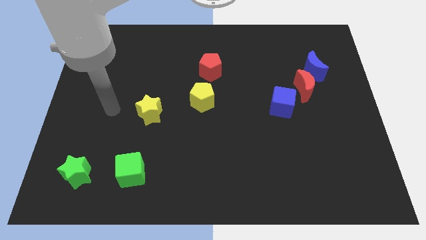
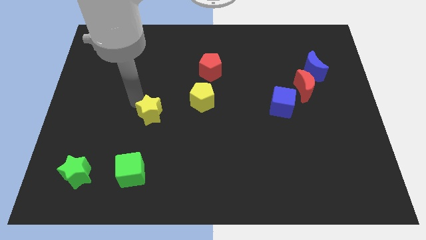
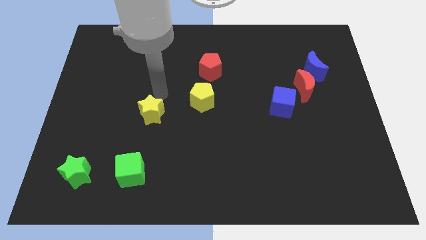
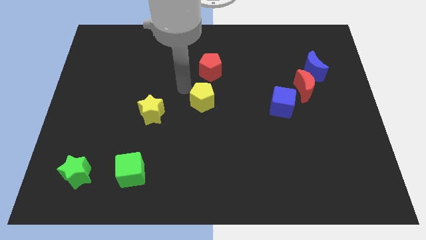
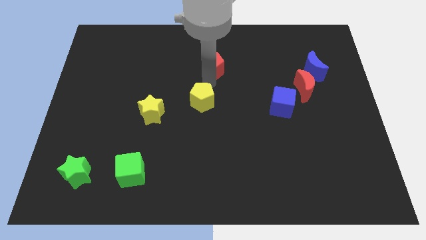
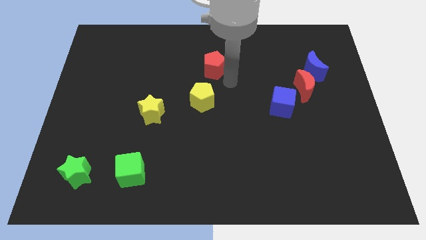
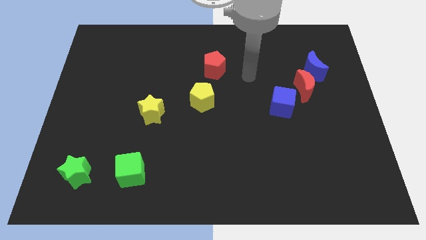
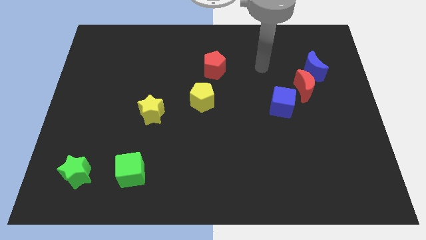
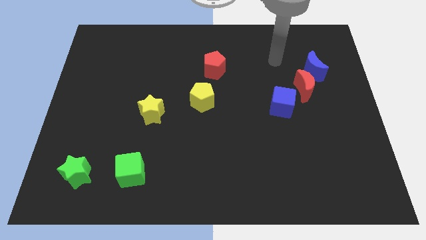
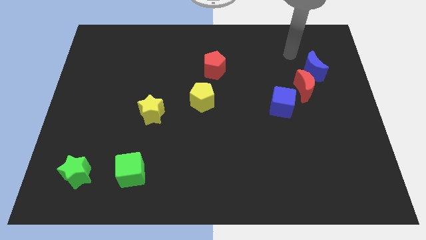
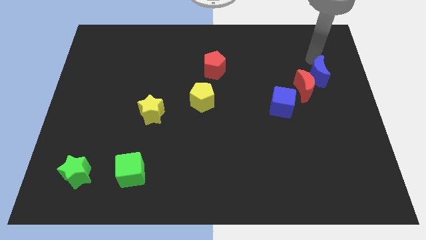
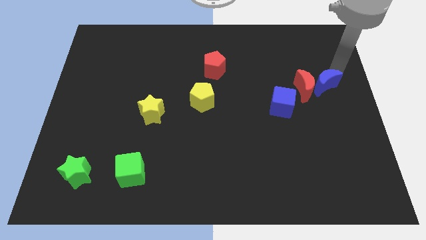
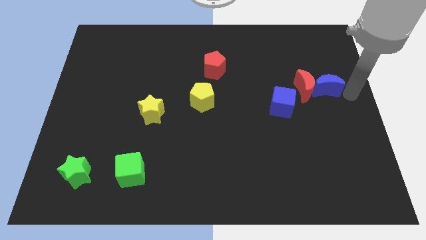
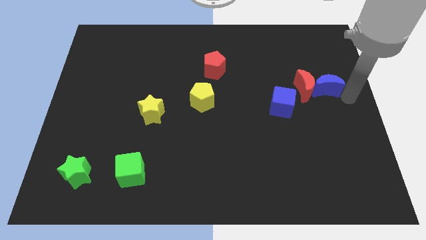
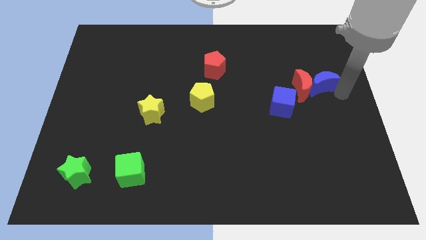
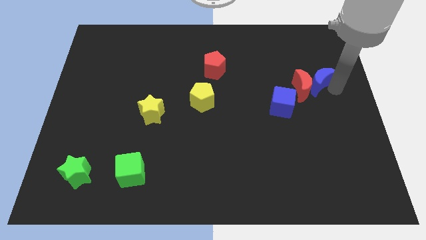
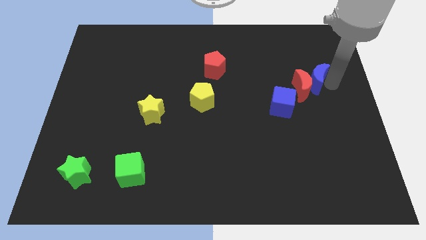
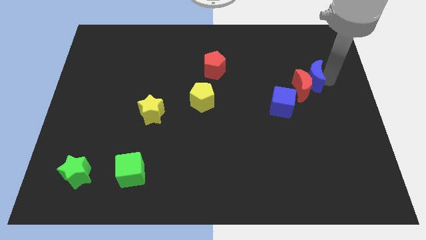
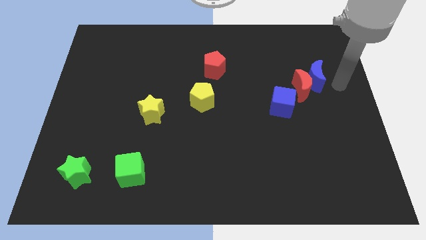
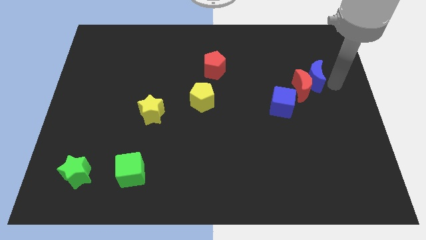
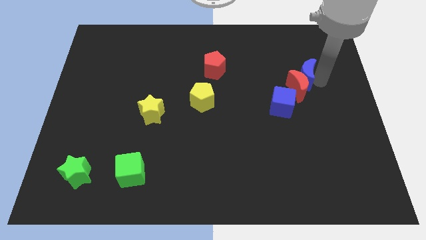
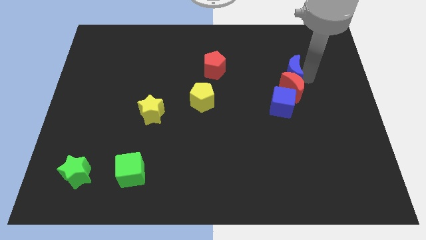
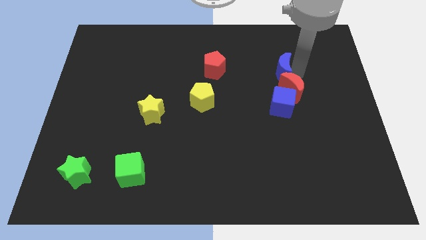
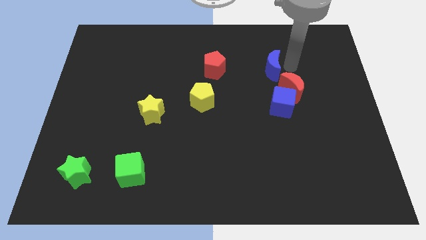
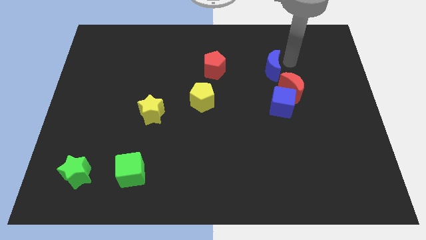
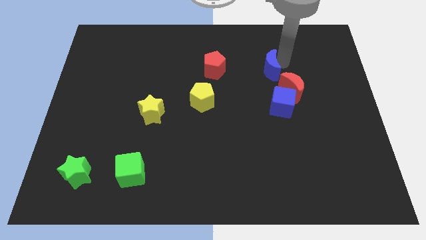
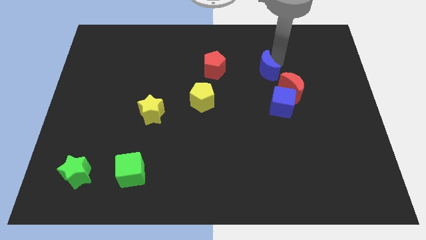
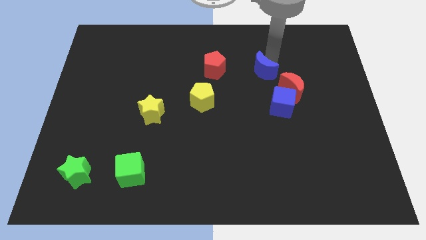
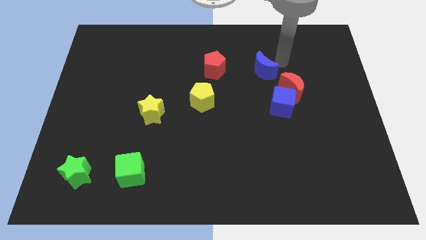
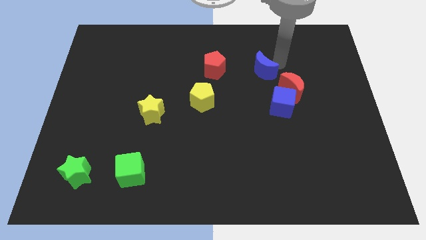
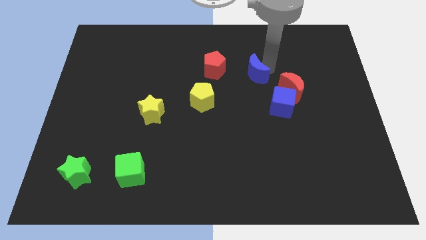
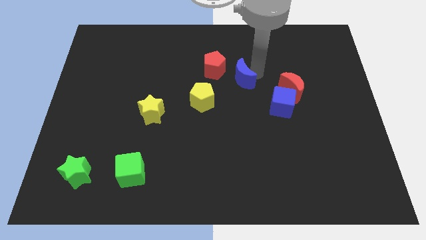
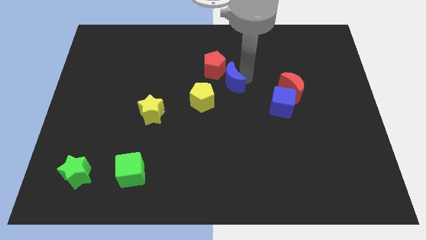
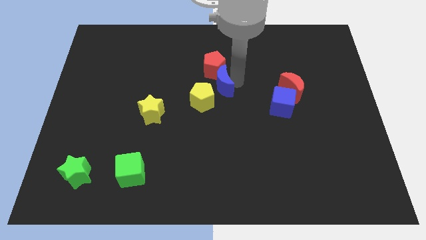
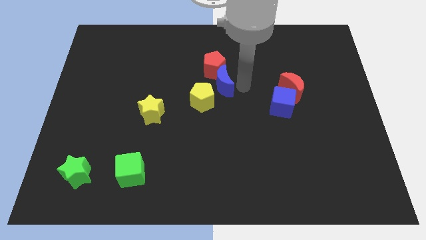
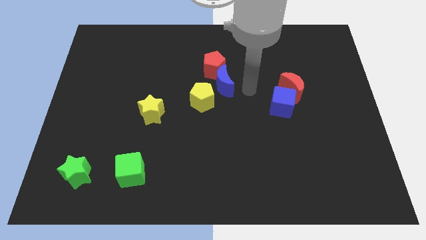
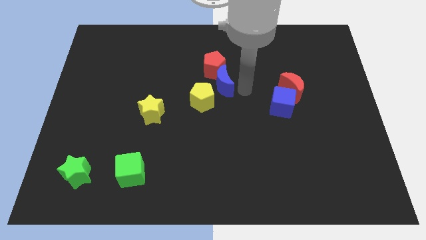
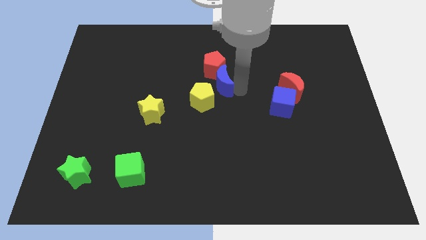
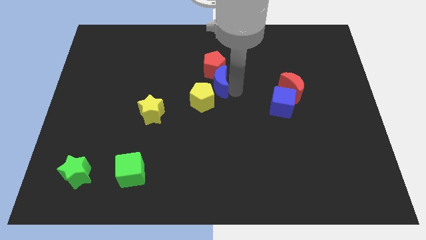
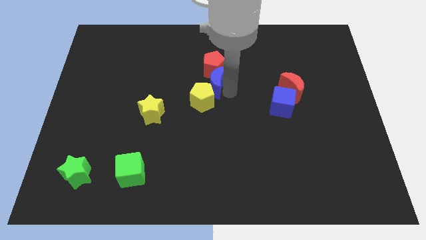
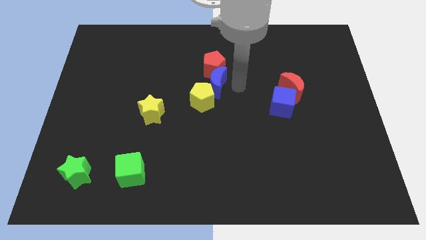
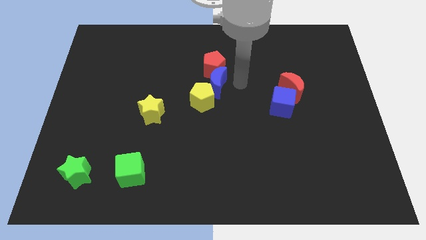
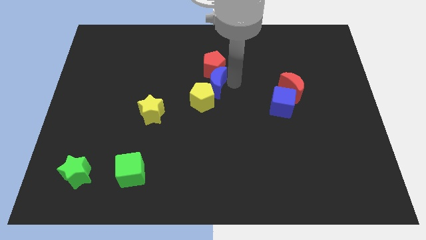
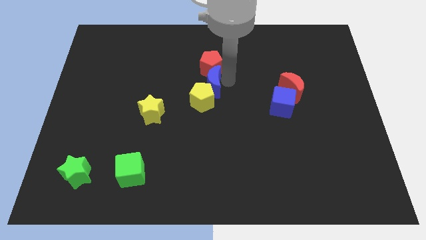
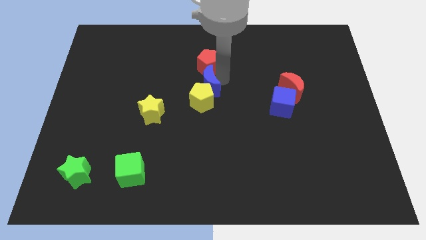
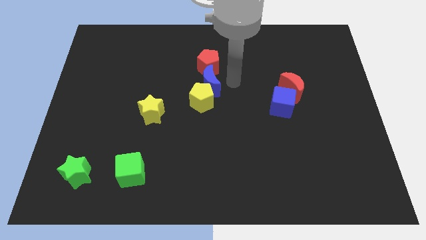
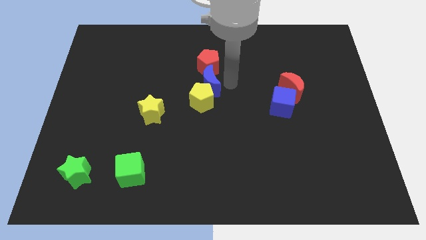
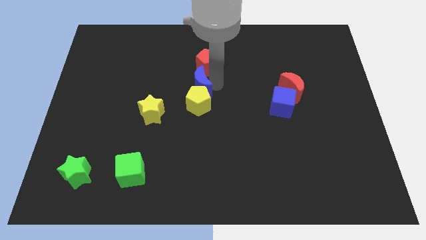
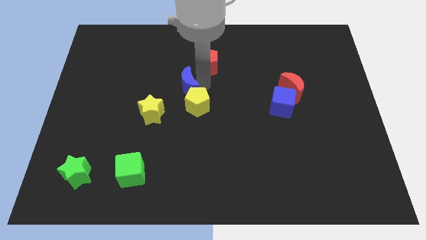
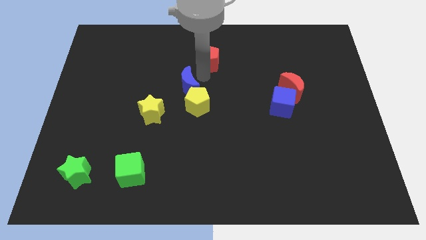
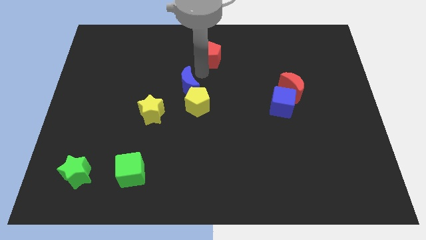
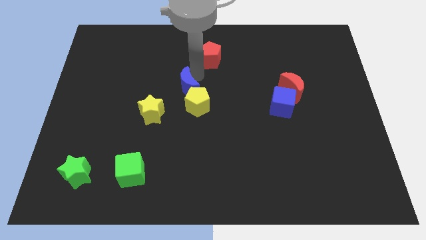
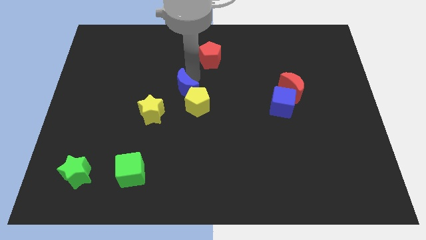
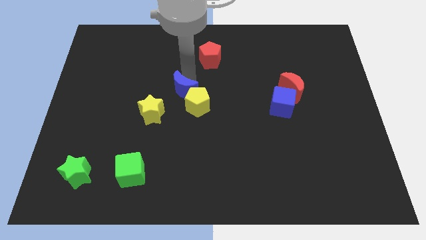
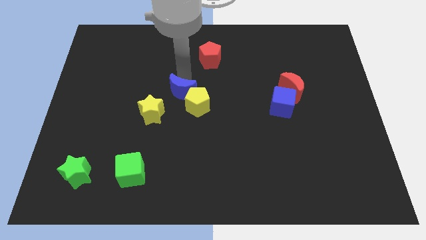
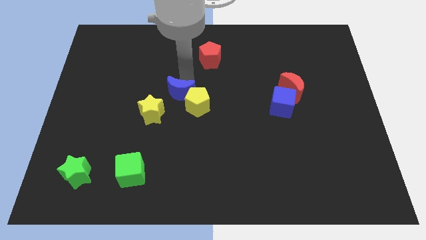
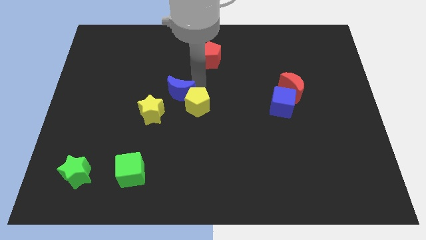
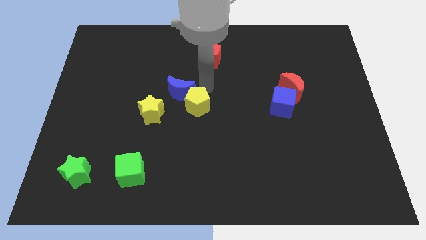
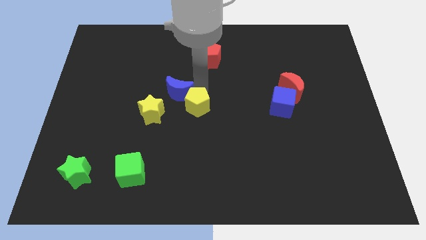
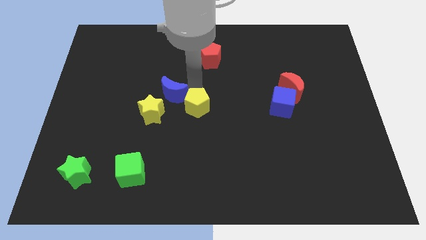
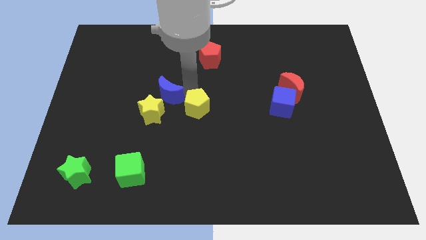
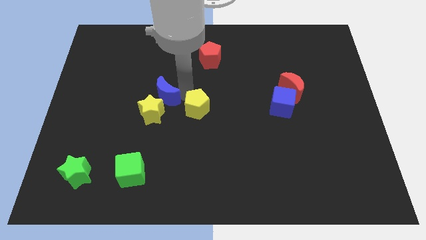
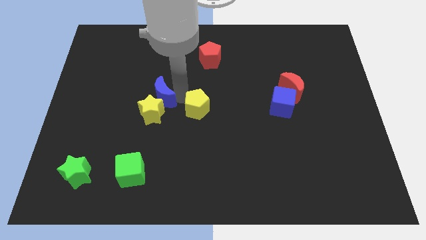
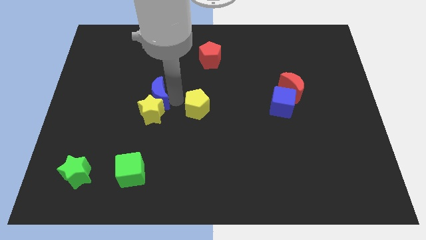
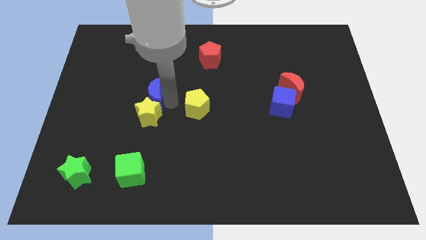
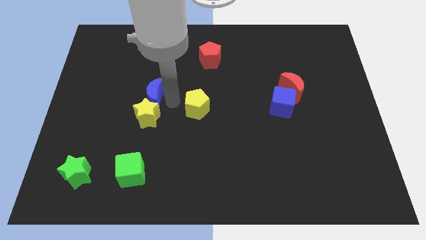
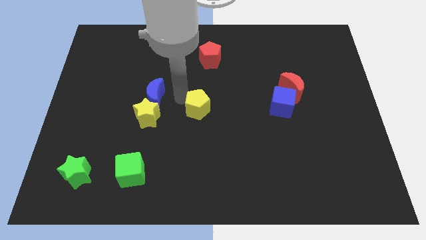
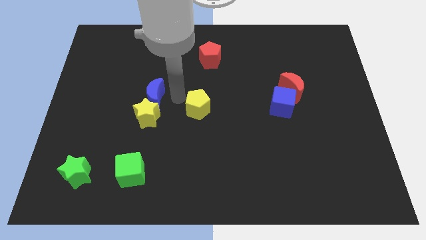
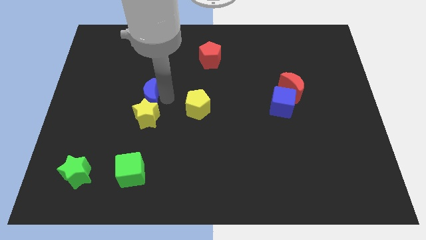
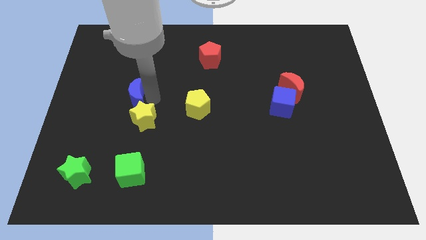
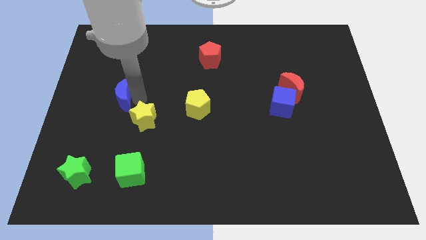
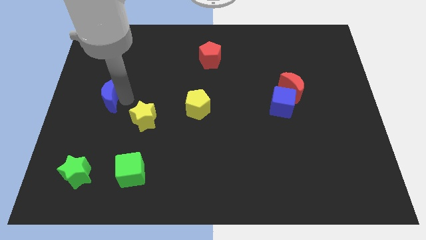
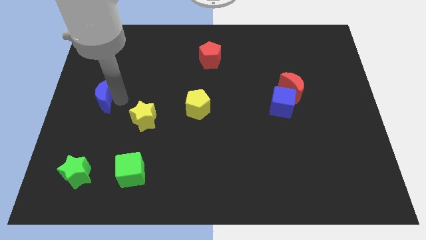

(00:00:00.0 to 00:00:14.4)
slide the blue moon to the center left
